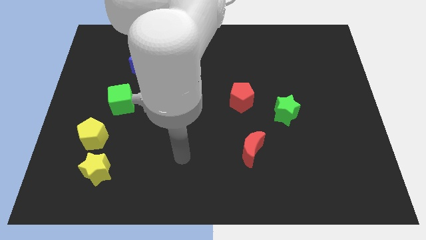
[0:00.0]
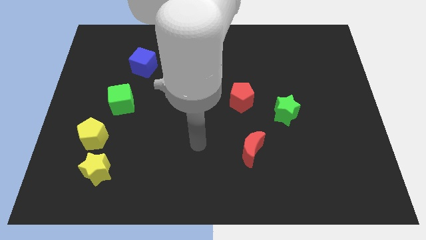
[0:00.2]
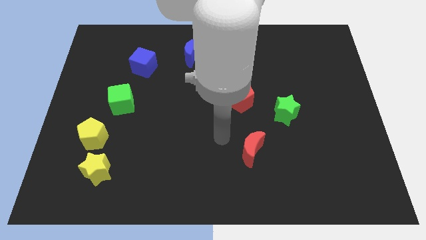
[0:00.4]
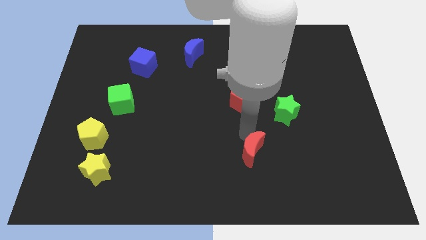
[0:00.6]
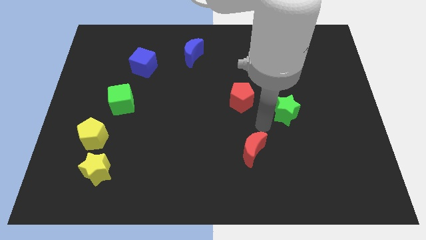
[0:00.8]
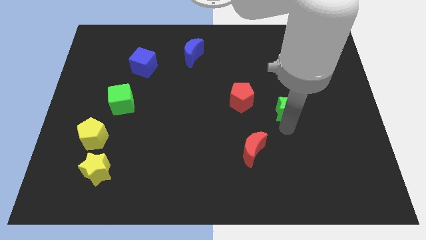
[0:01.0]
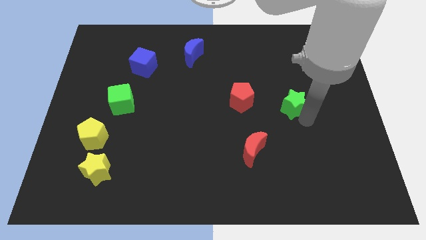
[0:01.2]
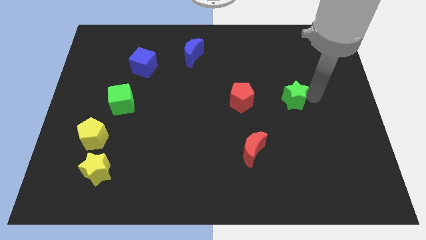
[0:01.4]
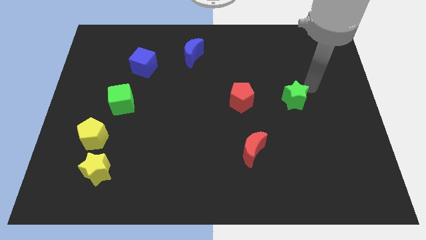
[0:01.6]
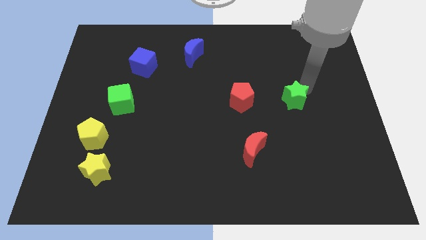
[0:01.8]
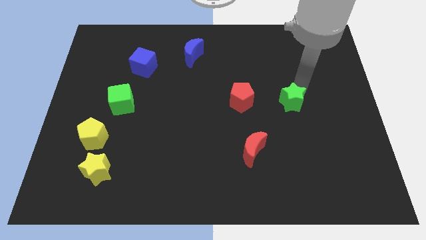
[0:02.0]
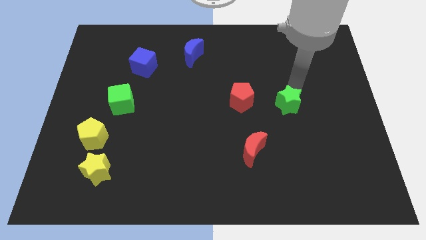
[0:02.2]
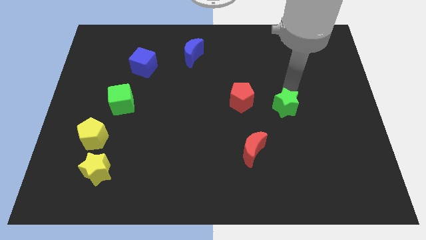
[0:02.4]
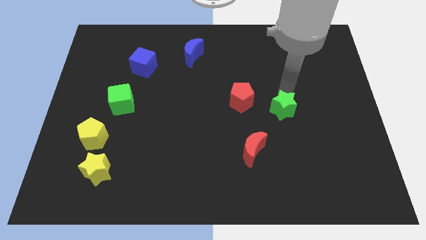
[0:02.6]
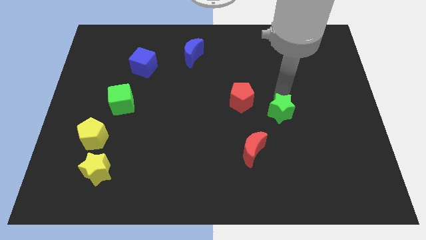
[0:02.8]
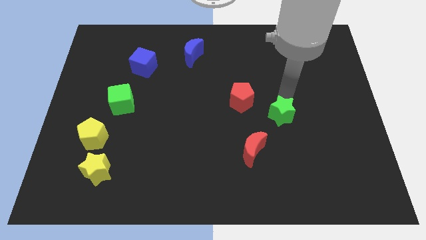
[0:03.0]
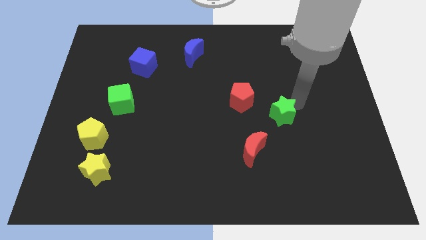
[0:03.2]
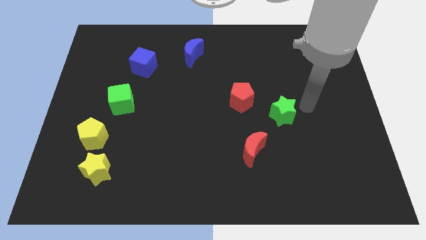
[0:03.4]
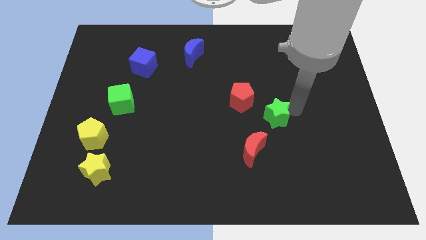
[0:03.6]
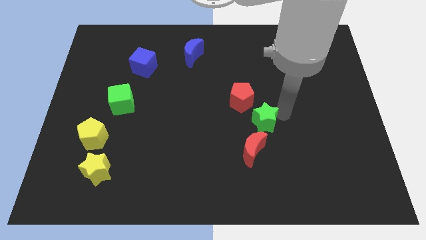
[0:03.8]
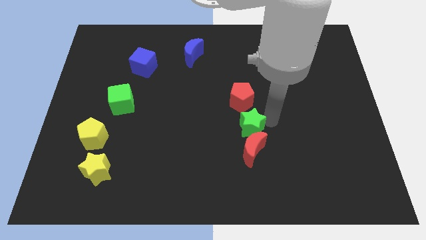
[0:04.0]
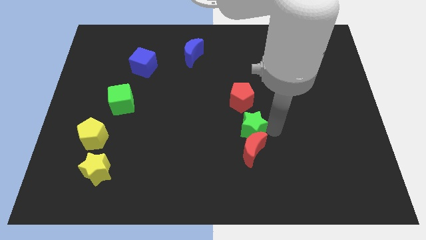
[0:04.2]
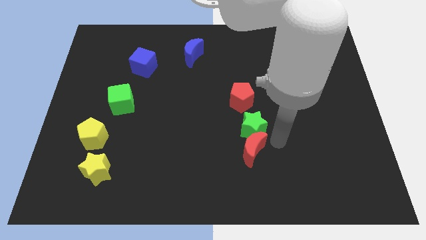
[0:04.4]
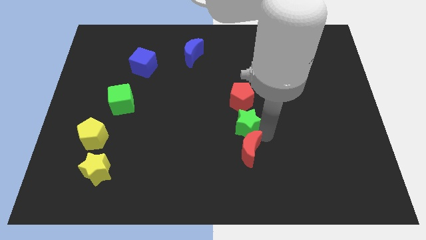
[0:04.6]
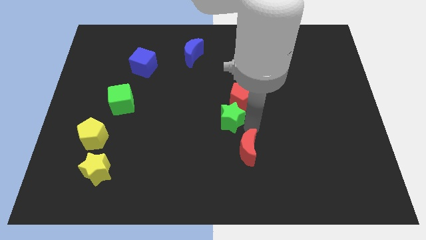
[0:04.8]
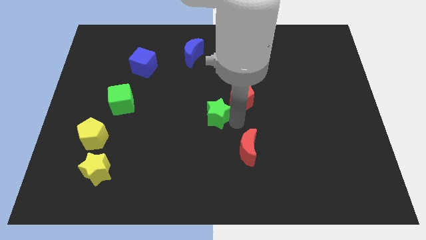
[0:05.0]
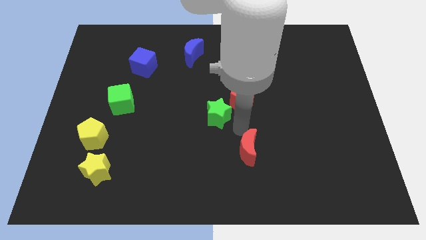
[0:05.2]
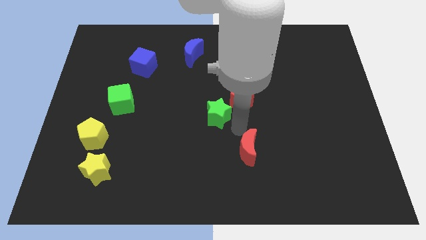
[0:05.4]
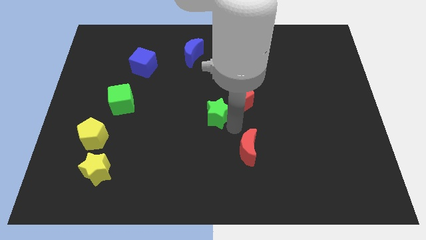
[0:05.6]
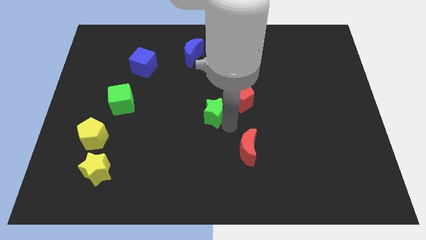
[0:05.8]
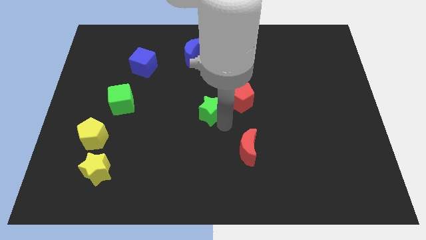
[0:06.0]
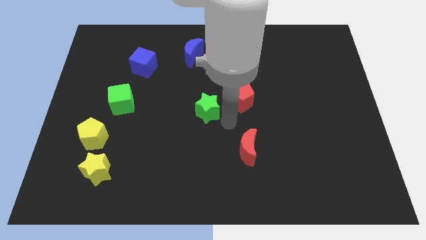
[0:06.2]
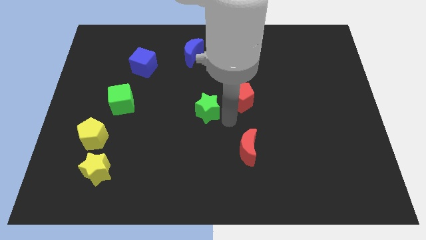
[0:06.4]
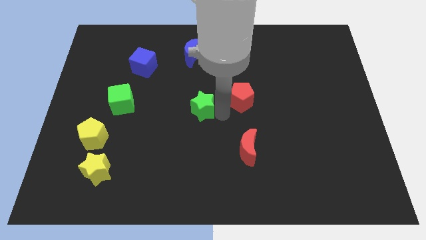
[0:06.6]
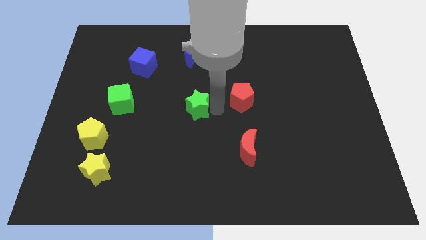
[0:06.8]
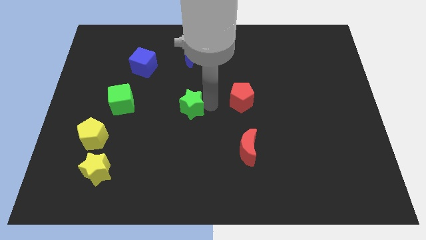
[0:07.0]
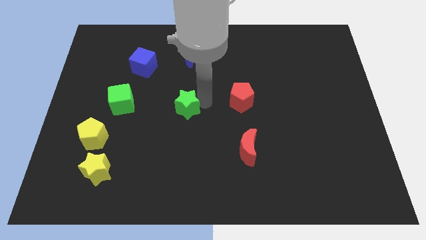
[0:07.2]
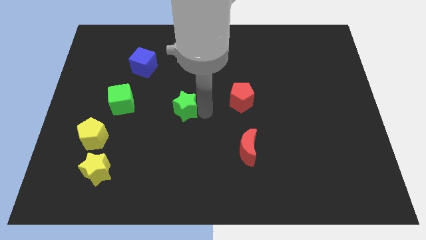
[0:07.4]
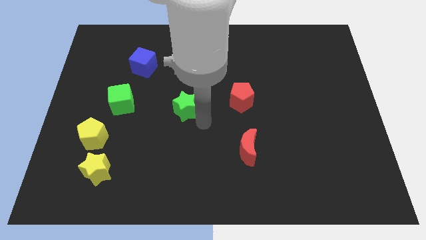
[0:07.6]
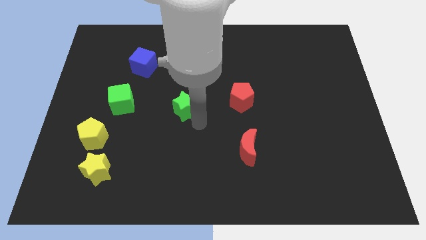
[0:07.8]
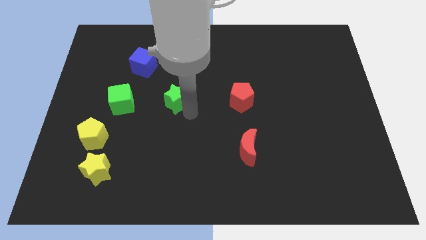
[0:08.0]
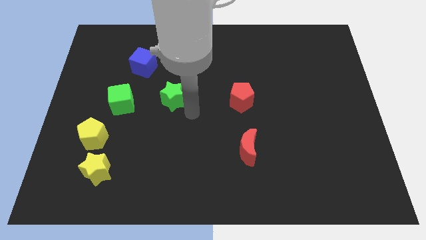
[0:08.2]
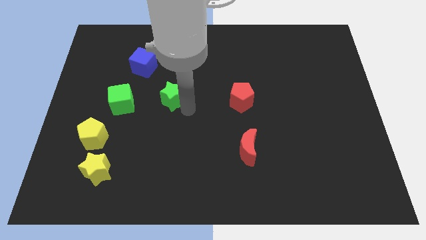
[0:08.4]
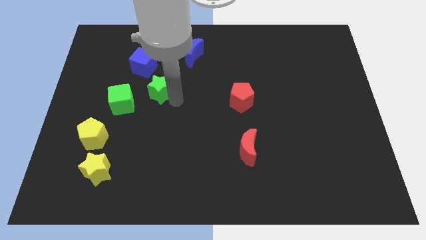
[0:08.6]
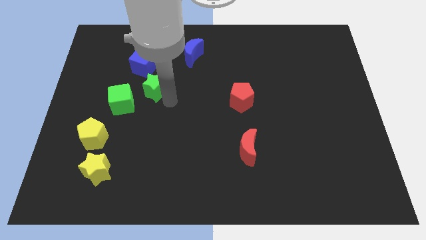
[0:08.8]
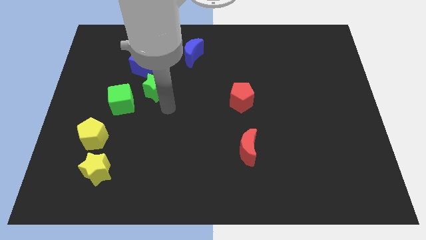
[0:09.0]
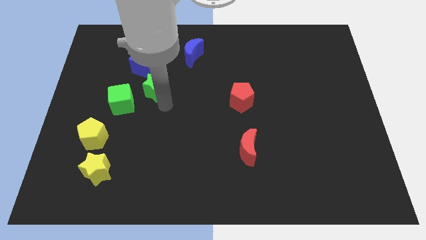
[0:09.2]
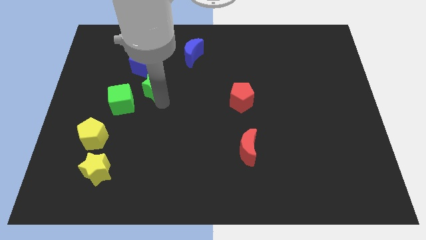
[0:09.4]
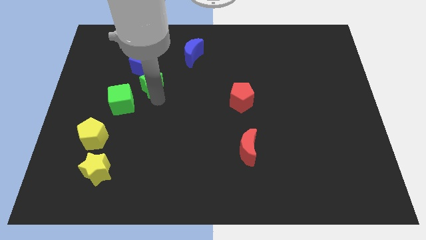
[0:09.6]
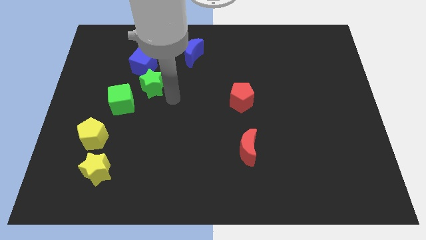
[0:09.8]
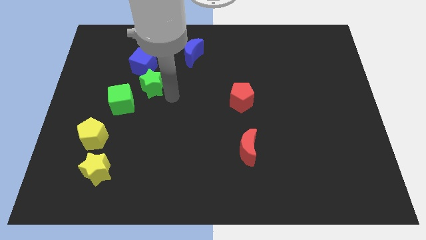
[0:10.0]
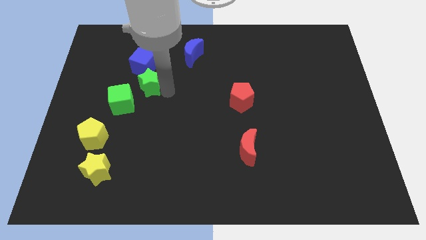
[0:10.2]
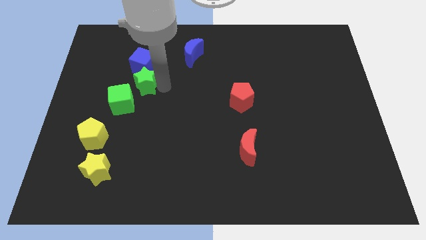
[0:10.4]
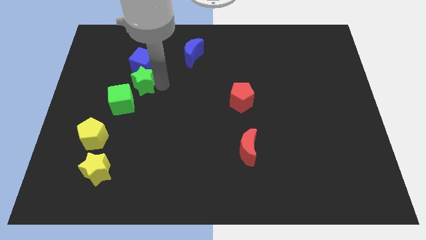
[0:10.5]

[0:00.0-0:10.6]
slide the green star to the top side of the green cube

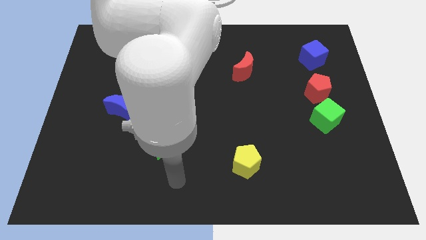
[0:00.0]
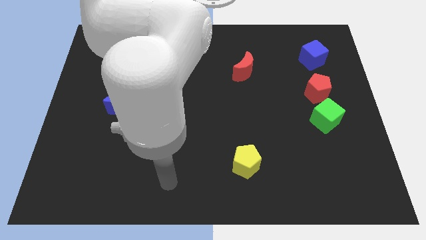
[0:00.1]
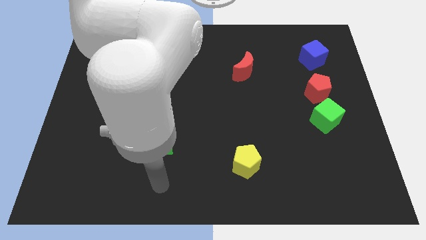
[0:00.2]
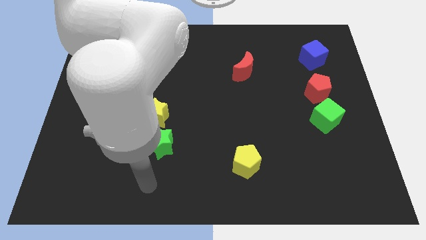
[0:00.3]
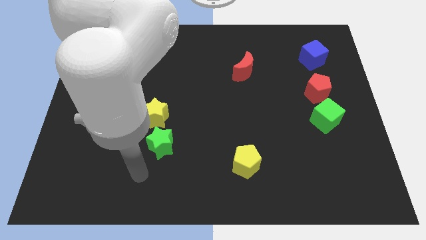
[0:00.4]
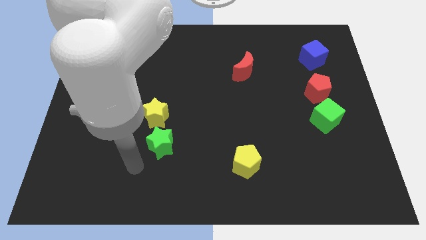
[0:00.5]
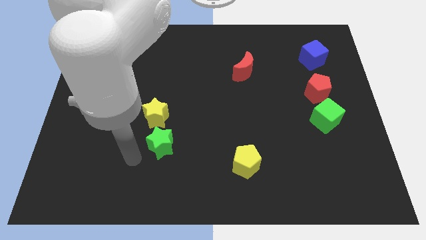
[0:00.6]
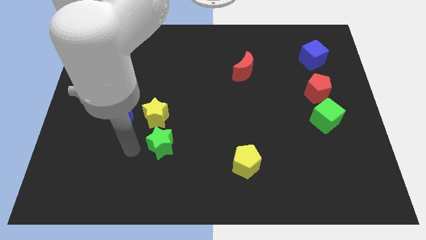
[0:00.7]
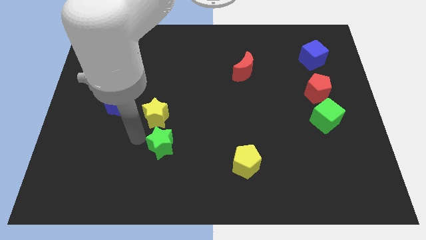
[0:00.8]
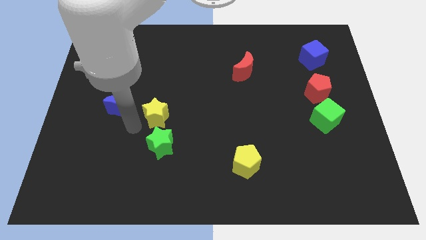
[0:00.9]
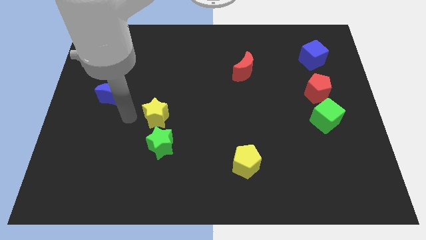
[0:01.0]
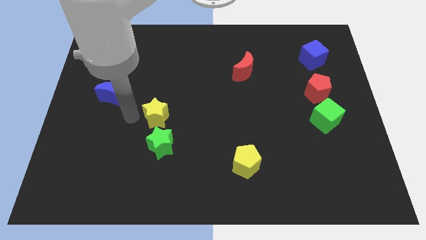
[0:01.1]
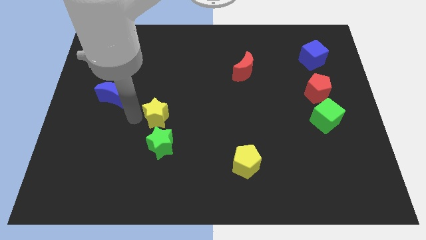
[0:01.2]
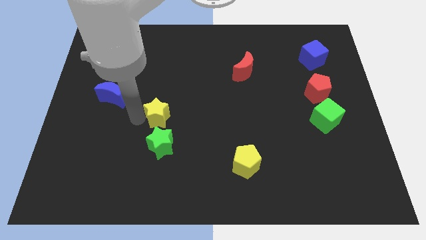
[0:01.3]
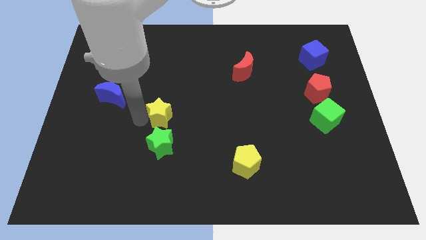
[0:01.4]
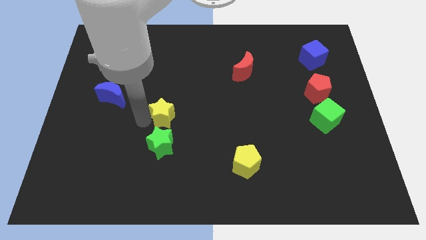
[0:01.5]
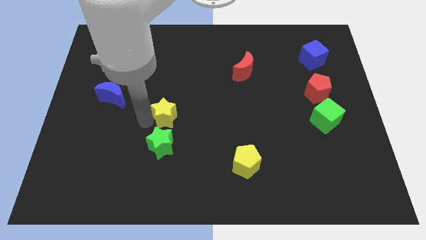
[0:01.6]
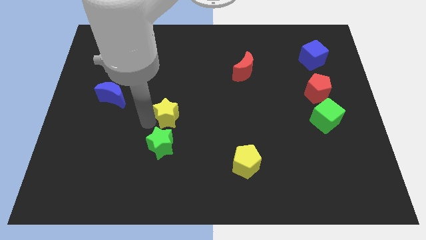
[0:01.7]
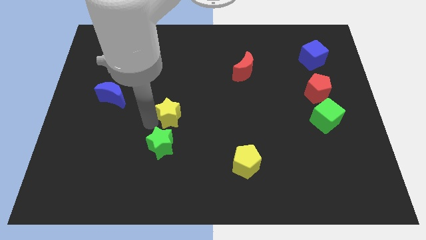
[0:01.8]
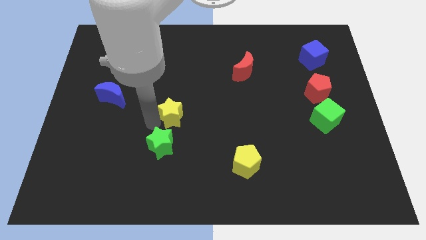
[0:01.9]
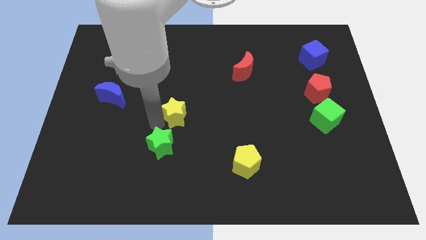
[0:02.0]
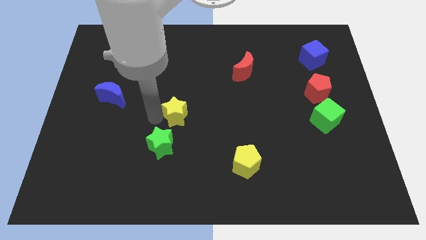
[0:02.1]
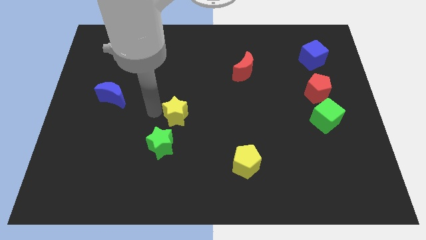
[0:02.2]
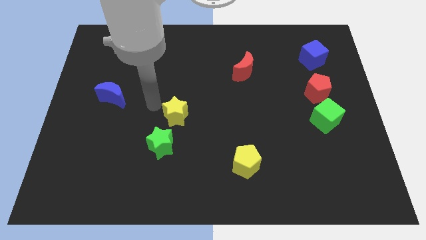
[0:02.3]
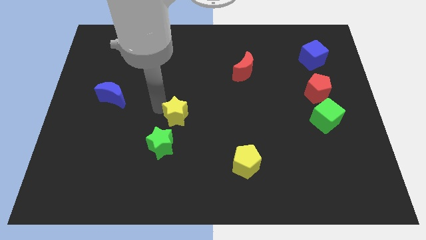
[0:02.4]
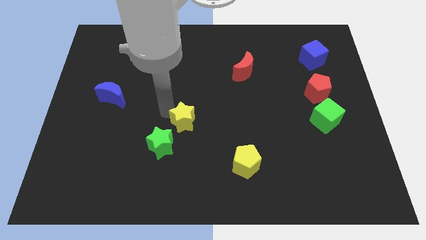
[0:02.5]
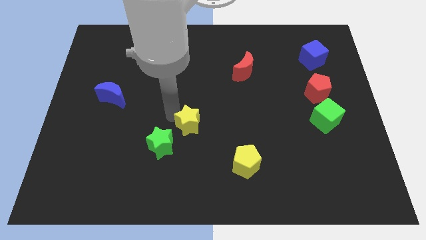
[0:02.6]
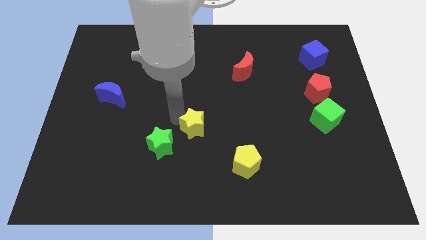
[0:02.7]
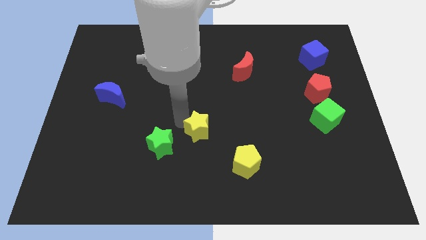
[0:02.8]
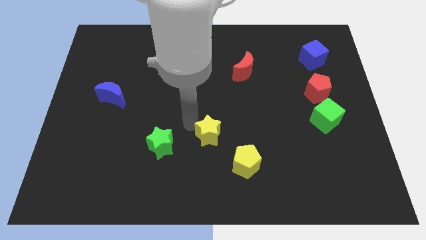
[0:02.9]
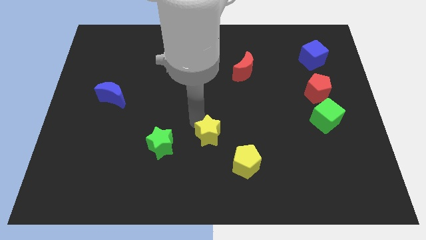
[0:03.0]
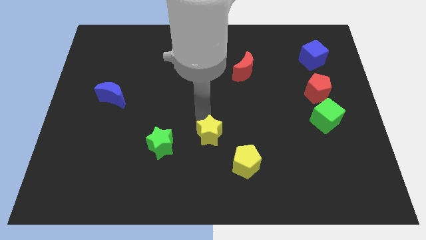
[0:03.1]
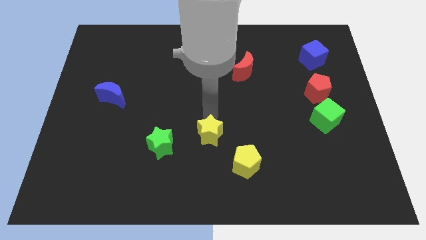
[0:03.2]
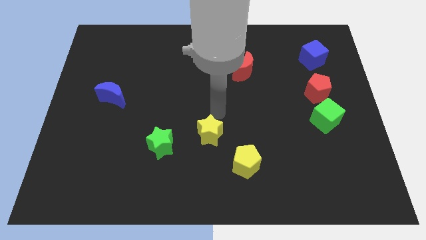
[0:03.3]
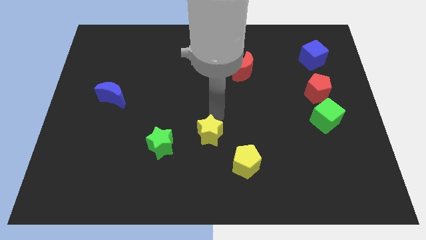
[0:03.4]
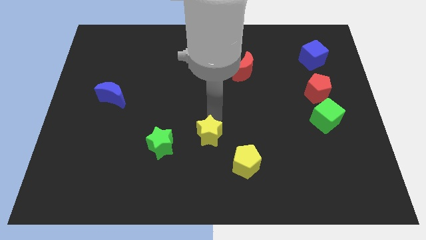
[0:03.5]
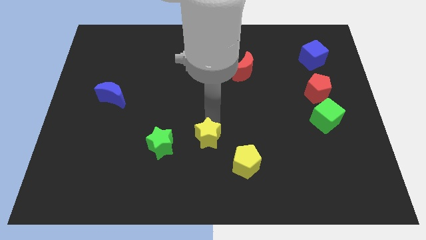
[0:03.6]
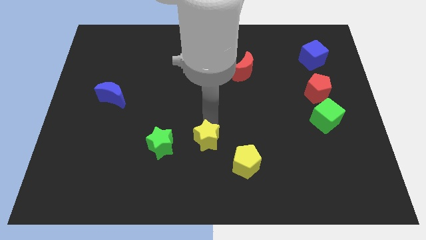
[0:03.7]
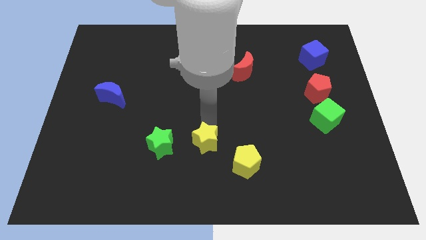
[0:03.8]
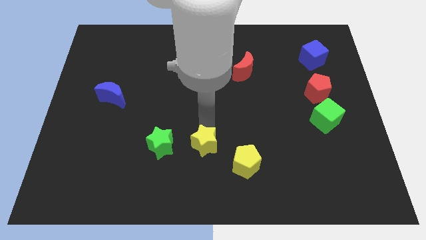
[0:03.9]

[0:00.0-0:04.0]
slide the yellow star left of the yellow pentagon
